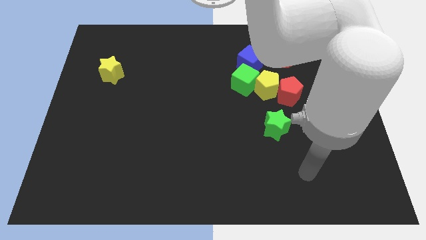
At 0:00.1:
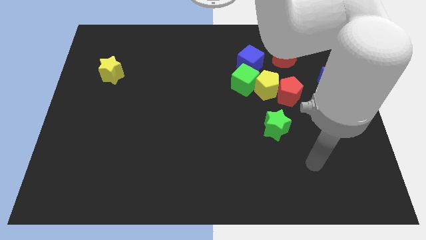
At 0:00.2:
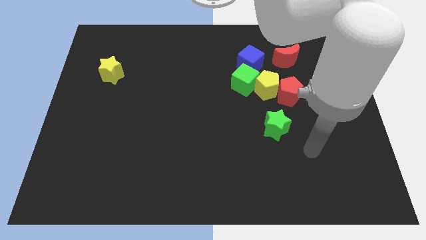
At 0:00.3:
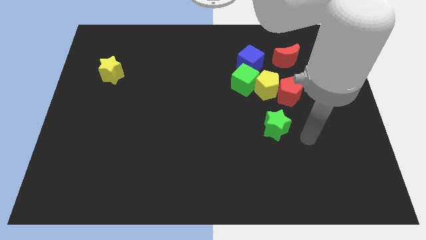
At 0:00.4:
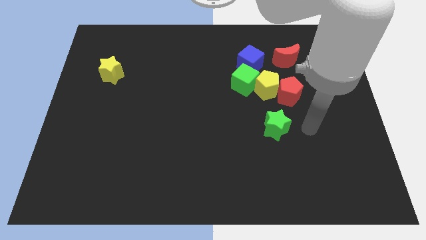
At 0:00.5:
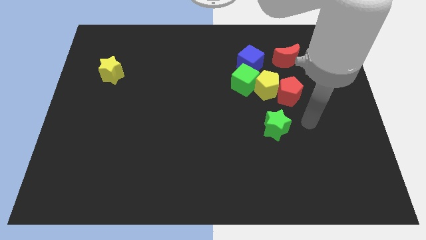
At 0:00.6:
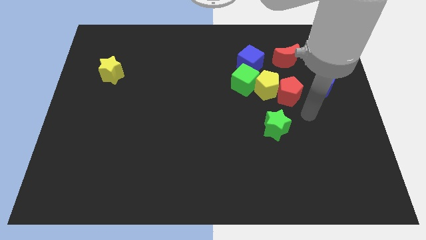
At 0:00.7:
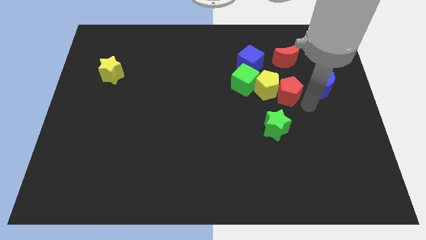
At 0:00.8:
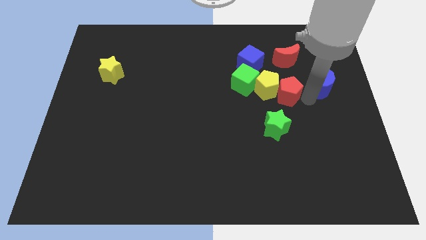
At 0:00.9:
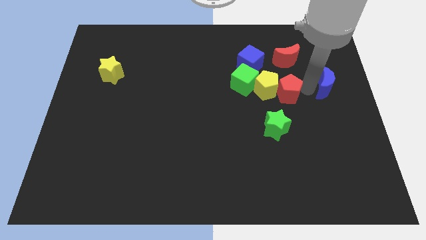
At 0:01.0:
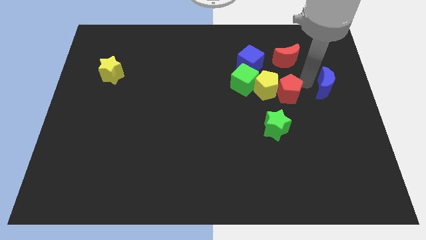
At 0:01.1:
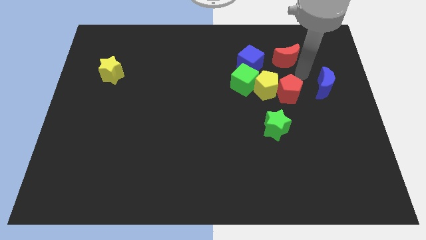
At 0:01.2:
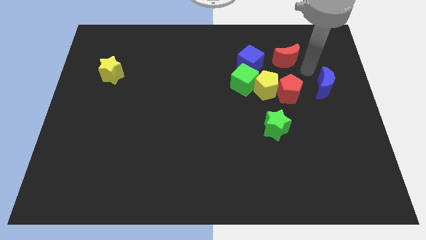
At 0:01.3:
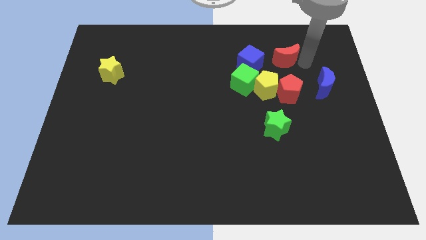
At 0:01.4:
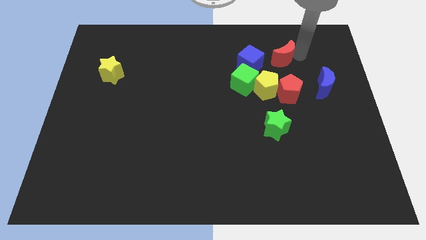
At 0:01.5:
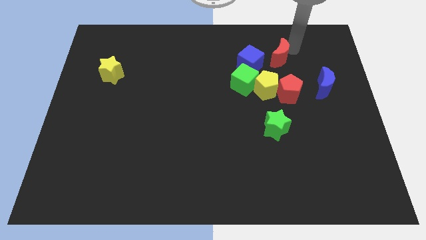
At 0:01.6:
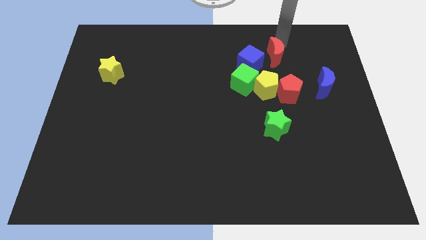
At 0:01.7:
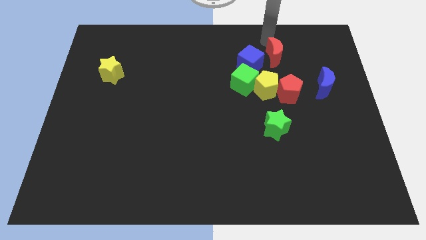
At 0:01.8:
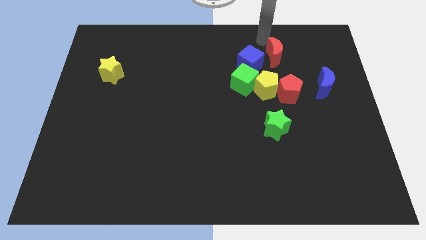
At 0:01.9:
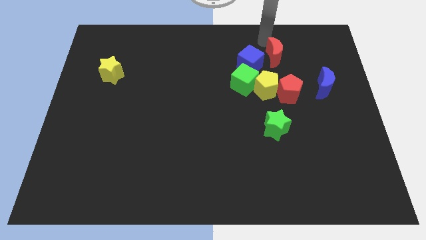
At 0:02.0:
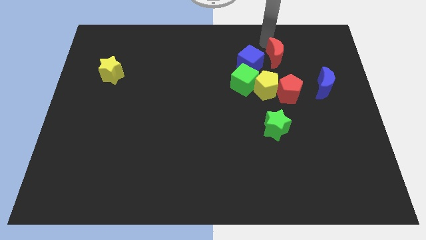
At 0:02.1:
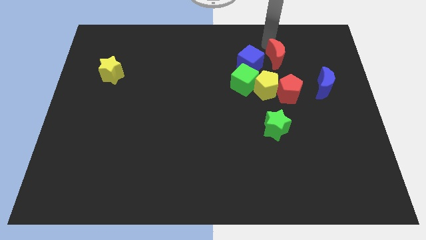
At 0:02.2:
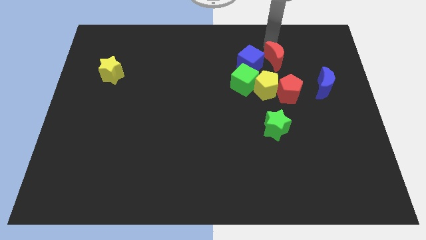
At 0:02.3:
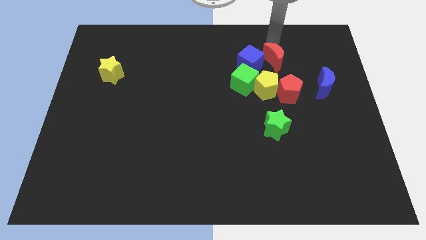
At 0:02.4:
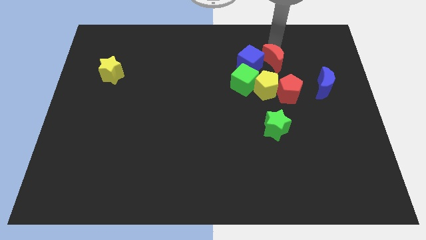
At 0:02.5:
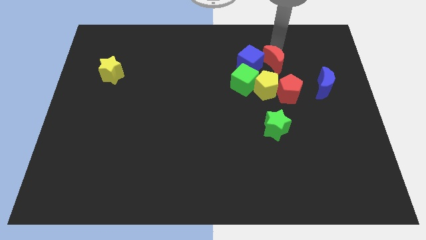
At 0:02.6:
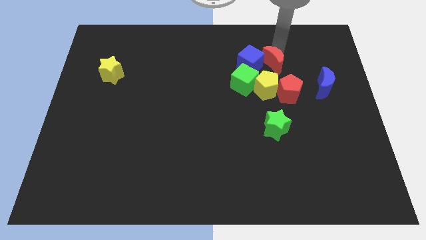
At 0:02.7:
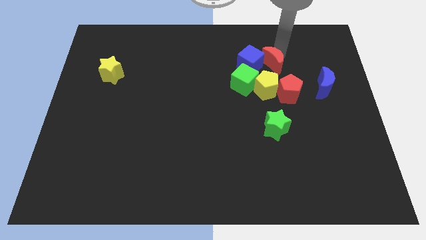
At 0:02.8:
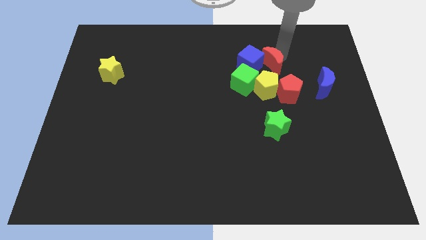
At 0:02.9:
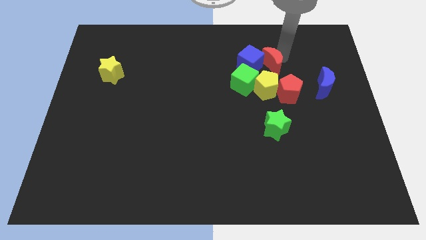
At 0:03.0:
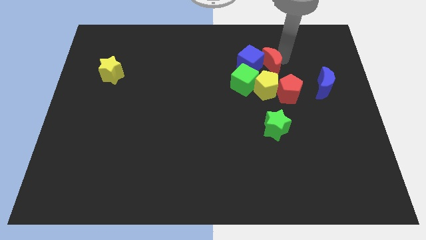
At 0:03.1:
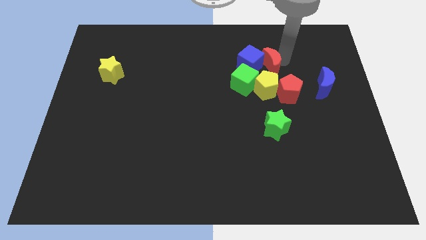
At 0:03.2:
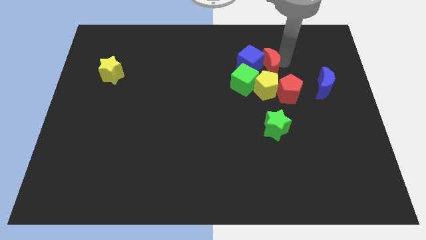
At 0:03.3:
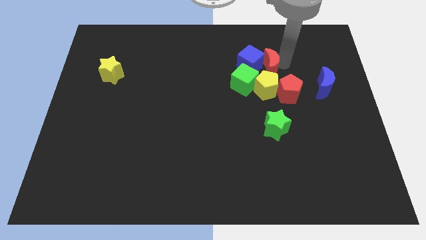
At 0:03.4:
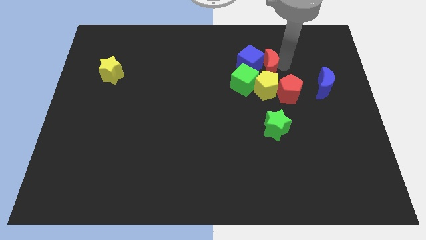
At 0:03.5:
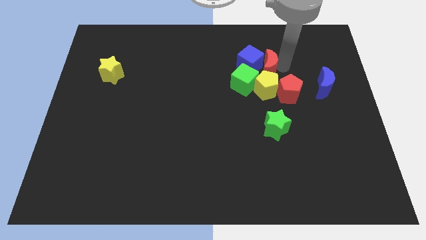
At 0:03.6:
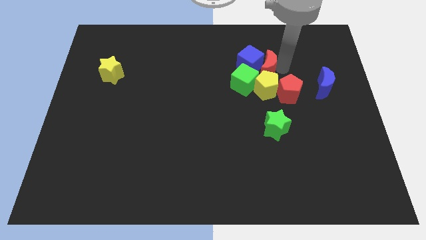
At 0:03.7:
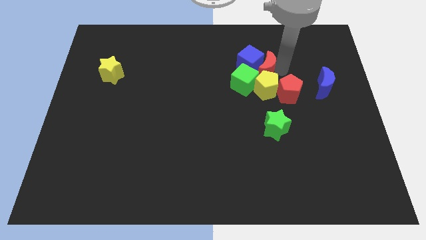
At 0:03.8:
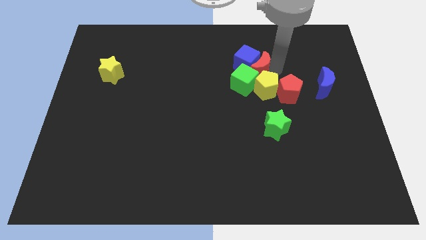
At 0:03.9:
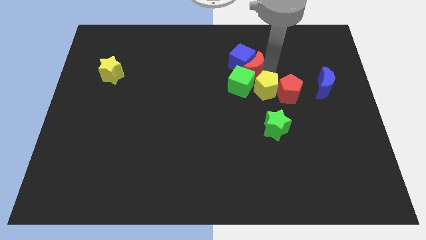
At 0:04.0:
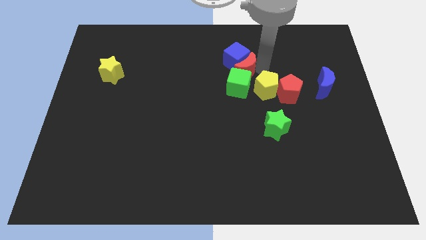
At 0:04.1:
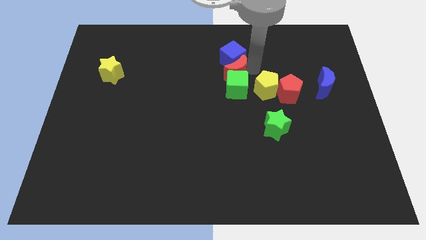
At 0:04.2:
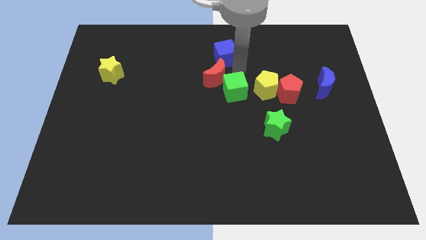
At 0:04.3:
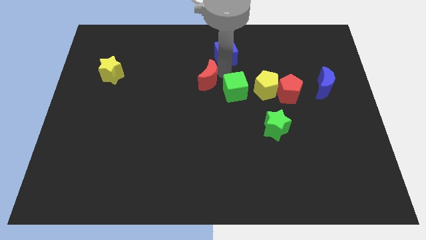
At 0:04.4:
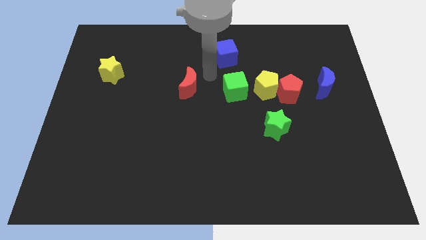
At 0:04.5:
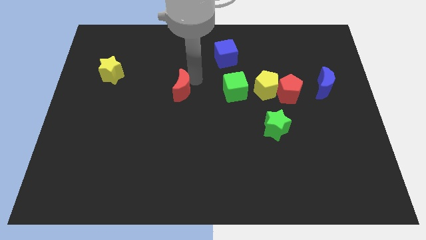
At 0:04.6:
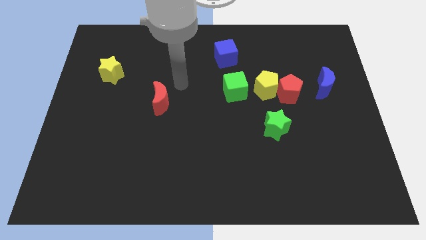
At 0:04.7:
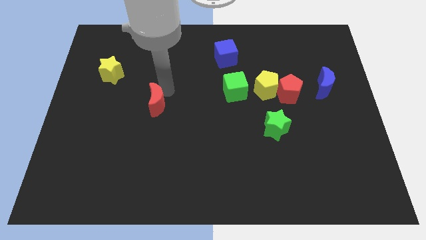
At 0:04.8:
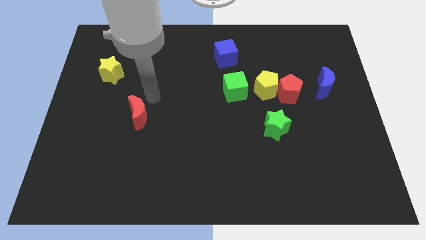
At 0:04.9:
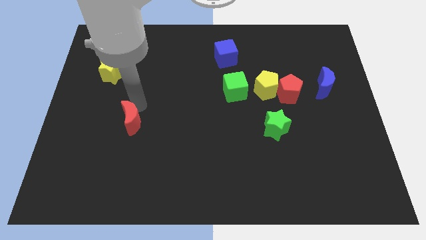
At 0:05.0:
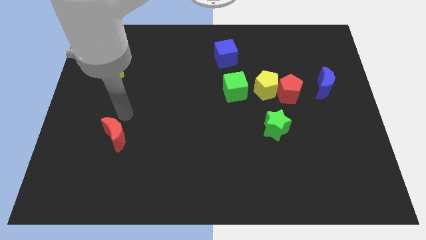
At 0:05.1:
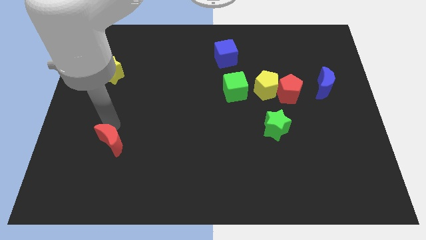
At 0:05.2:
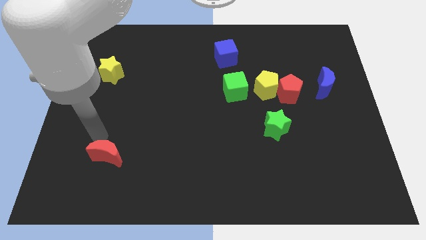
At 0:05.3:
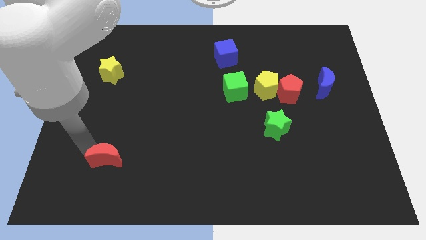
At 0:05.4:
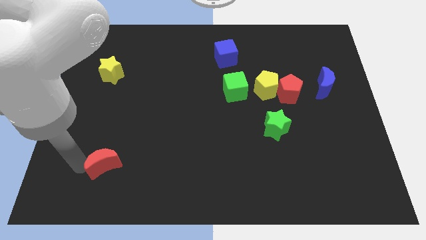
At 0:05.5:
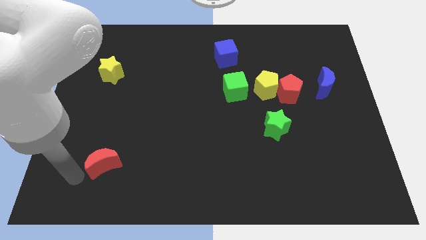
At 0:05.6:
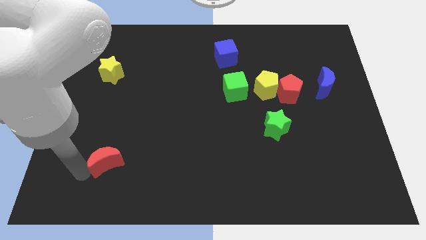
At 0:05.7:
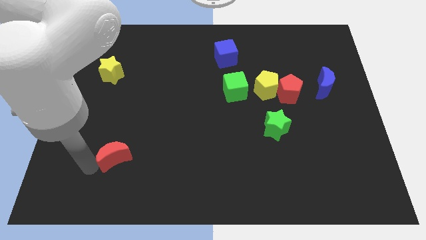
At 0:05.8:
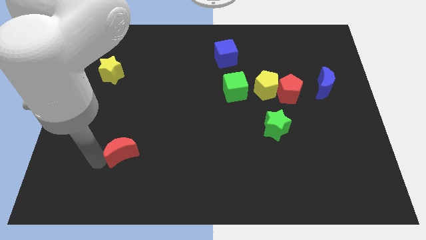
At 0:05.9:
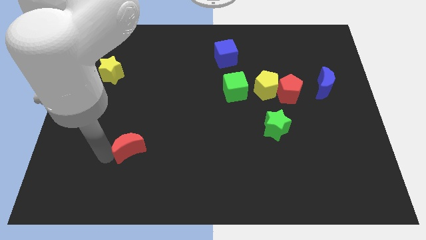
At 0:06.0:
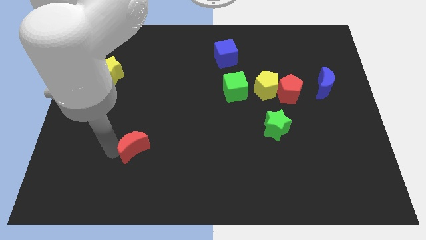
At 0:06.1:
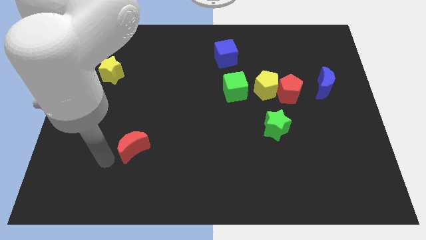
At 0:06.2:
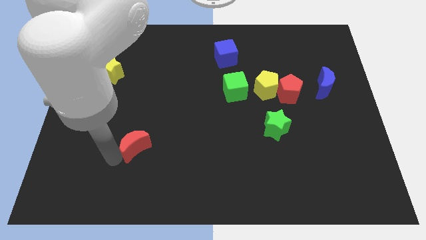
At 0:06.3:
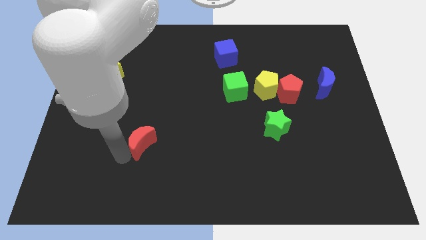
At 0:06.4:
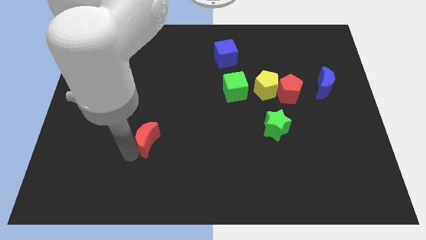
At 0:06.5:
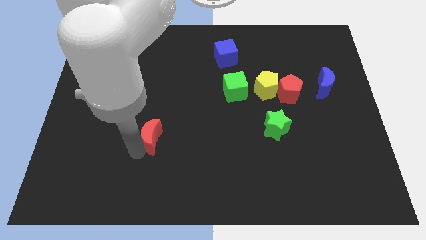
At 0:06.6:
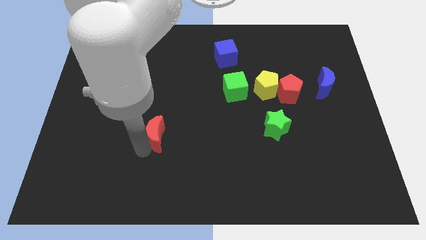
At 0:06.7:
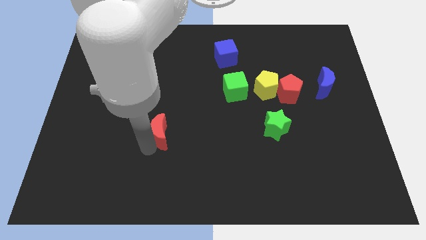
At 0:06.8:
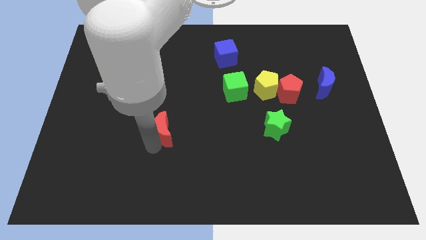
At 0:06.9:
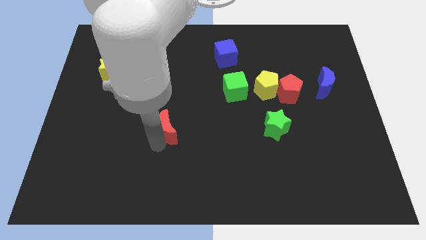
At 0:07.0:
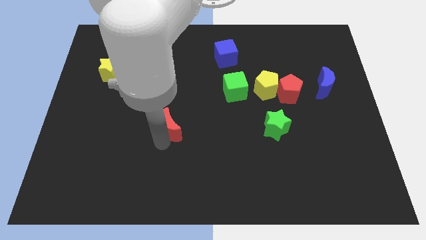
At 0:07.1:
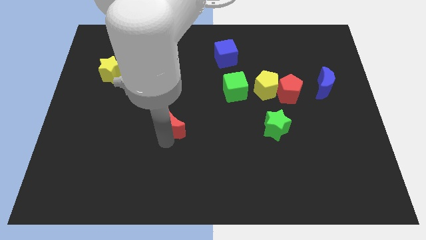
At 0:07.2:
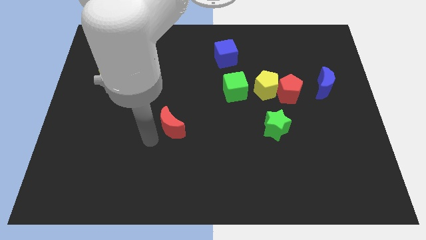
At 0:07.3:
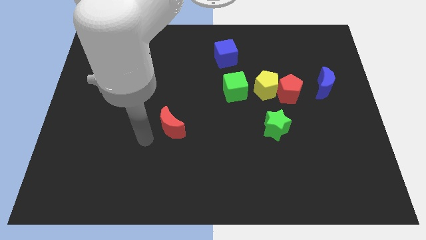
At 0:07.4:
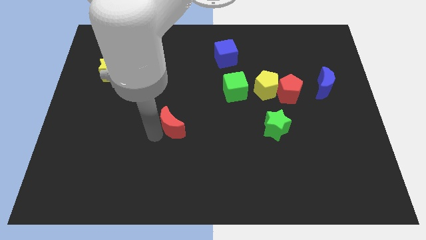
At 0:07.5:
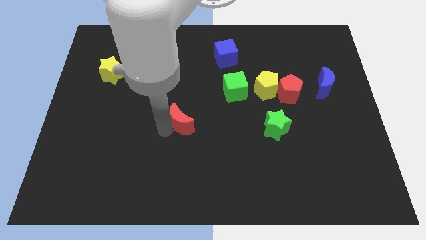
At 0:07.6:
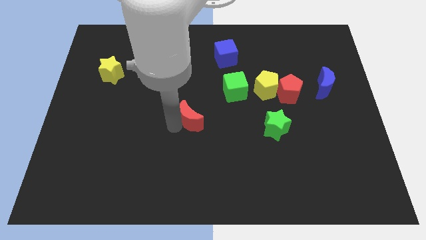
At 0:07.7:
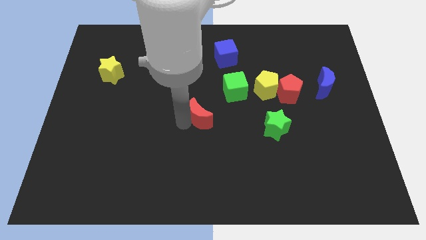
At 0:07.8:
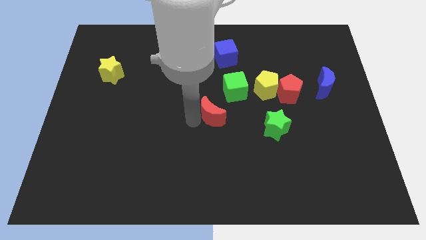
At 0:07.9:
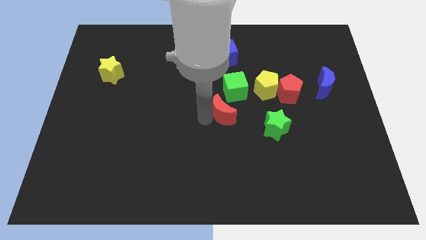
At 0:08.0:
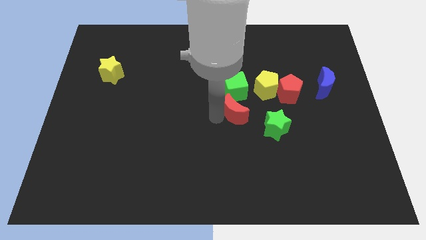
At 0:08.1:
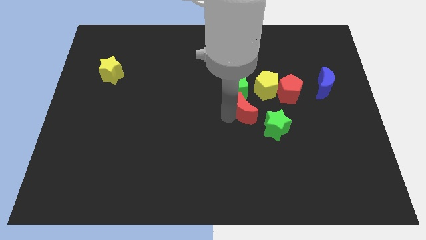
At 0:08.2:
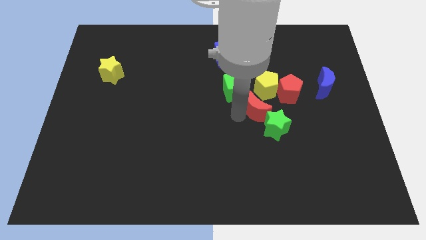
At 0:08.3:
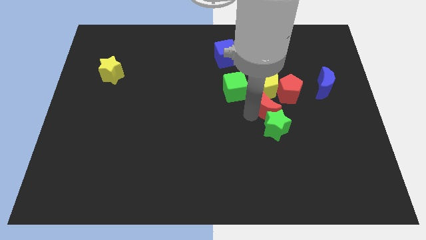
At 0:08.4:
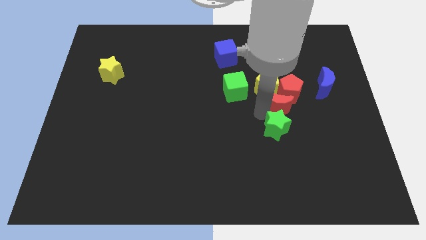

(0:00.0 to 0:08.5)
put the red moon next to the red pentagon
